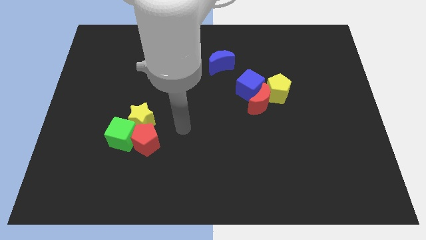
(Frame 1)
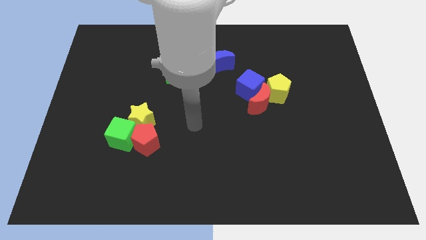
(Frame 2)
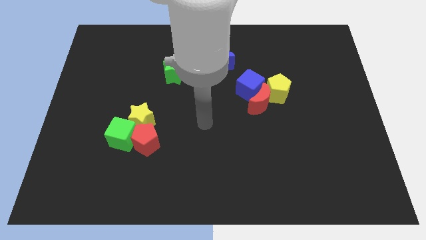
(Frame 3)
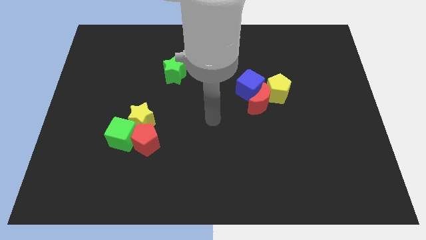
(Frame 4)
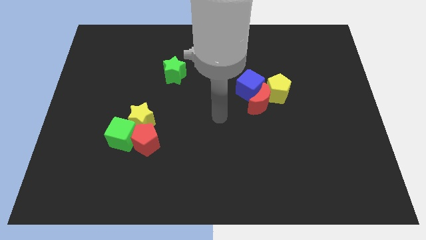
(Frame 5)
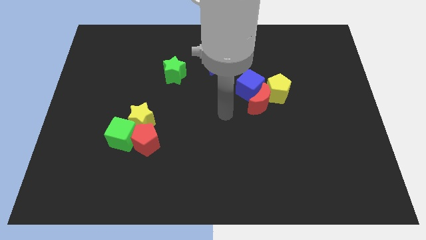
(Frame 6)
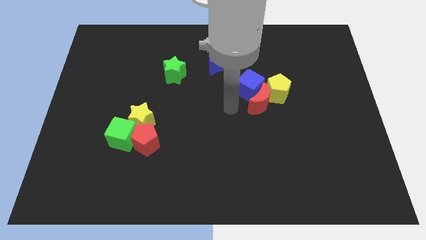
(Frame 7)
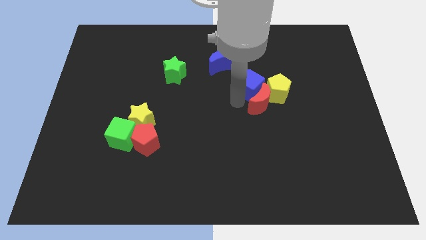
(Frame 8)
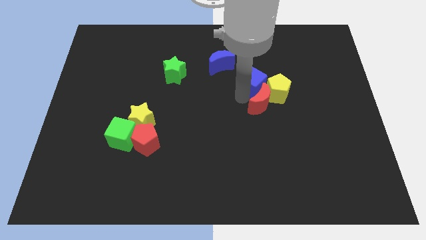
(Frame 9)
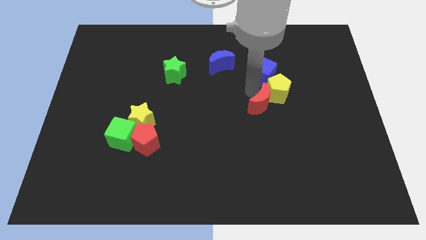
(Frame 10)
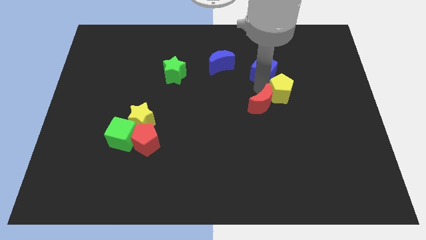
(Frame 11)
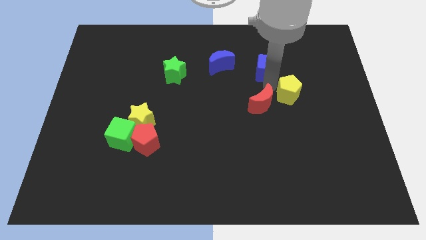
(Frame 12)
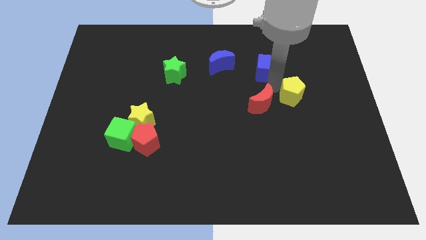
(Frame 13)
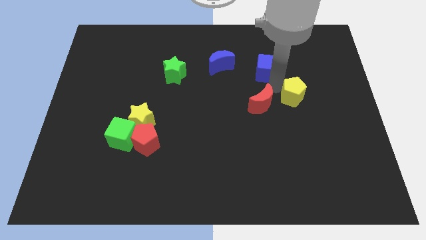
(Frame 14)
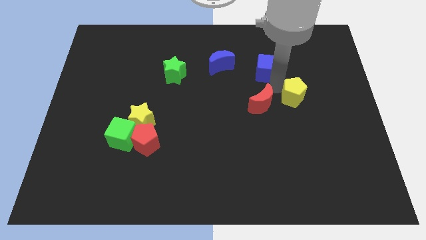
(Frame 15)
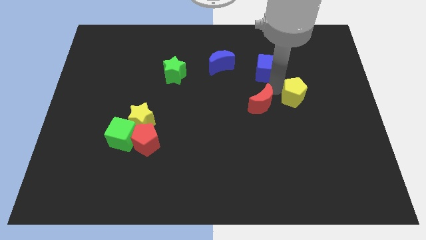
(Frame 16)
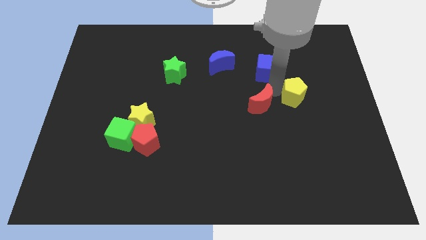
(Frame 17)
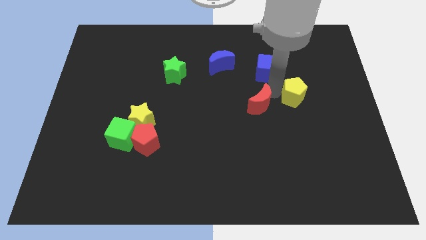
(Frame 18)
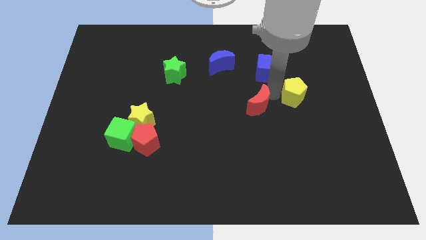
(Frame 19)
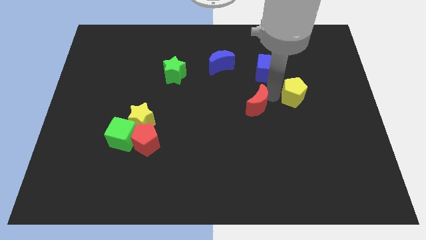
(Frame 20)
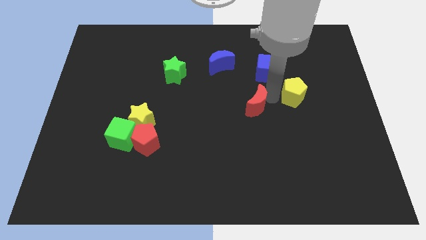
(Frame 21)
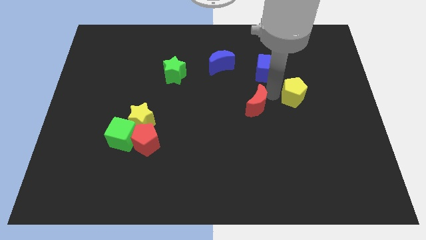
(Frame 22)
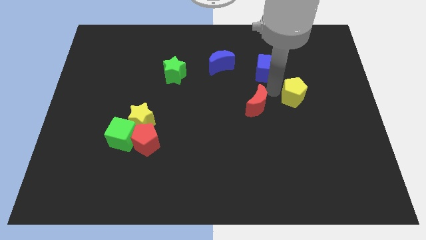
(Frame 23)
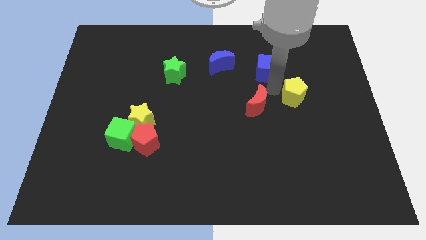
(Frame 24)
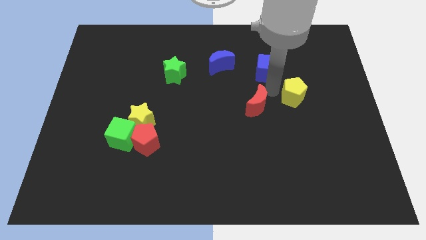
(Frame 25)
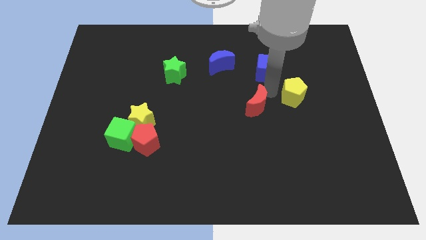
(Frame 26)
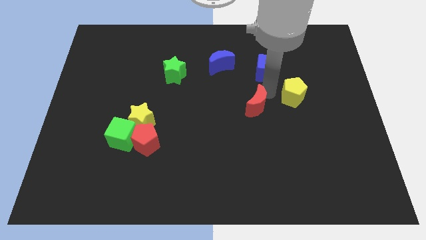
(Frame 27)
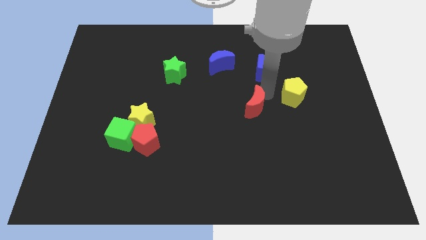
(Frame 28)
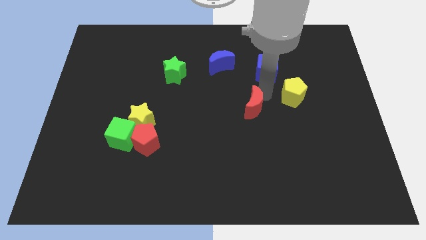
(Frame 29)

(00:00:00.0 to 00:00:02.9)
move the red moon away from the blue cube and yellow pentagon

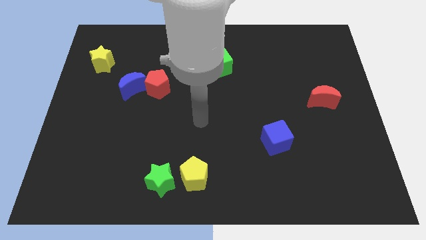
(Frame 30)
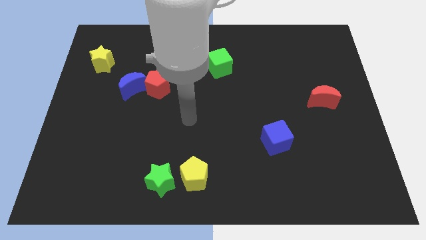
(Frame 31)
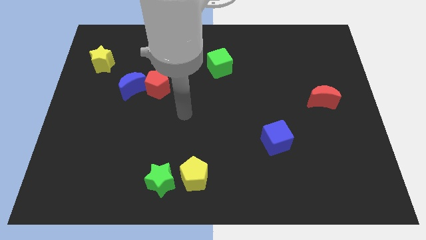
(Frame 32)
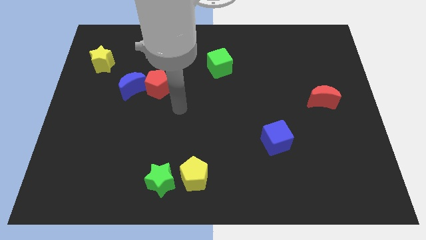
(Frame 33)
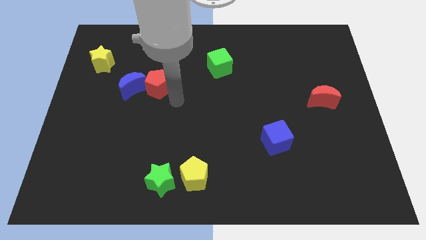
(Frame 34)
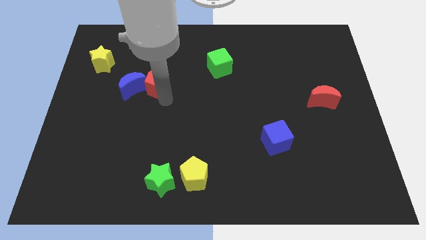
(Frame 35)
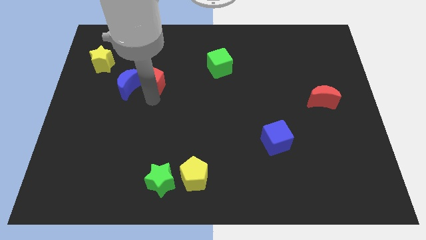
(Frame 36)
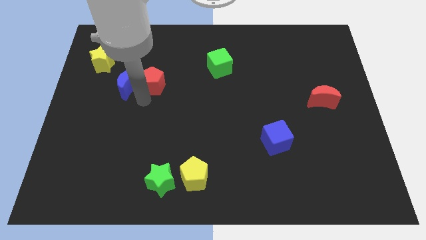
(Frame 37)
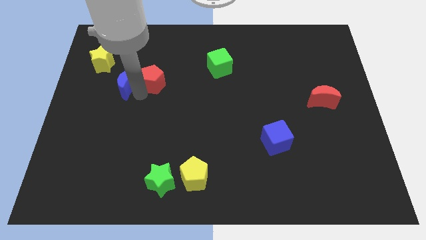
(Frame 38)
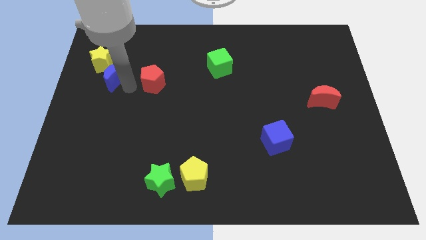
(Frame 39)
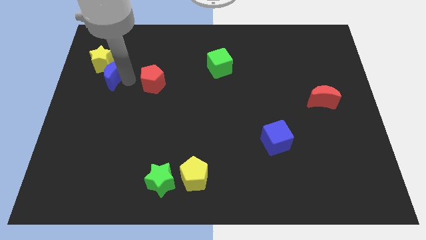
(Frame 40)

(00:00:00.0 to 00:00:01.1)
pull the red pentagon apart from the blue moon

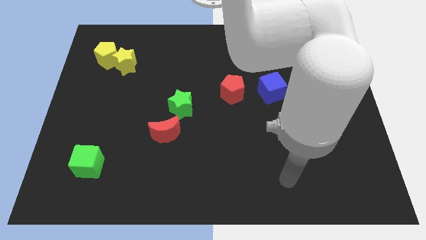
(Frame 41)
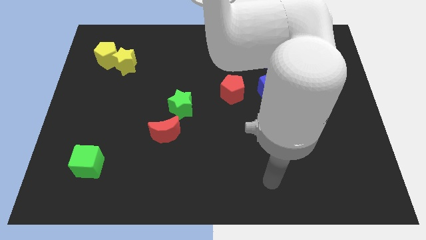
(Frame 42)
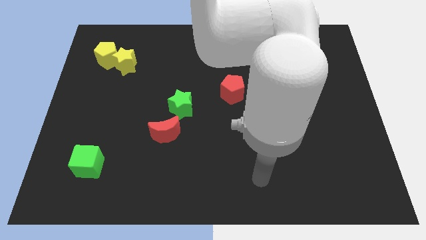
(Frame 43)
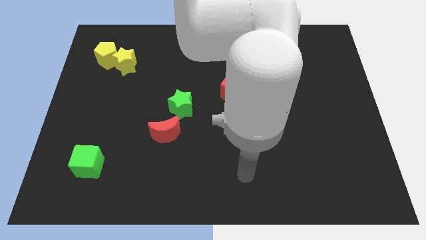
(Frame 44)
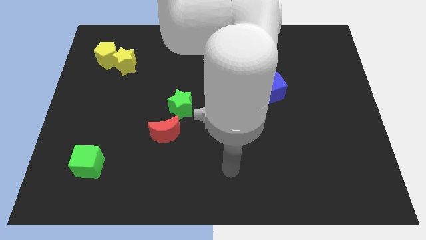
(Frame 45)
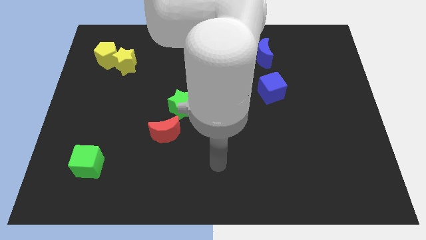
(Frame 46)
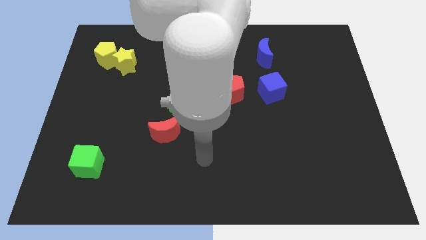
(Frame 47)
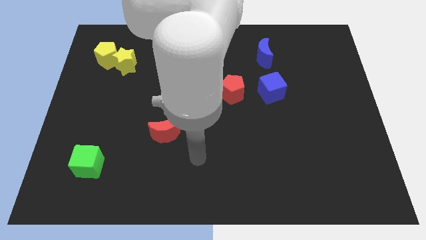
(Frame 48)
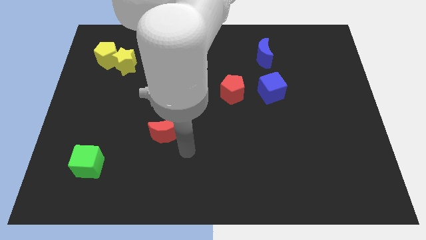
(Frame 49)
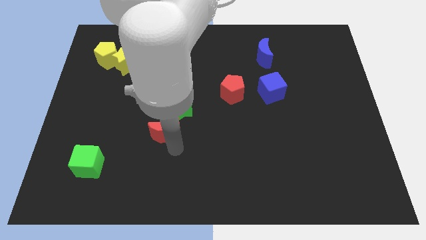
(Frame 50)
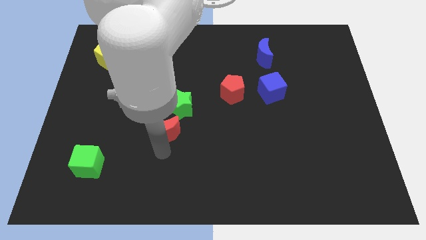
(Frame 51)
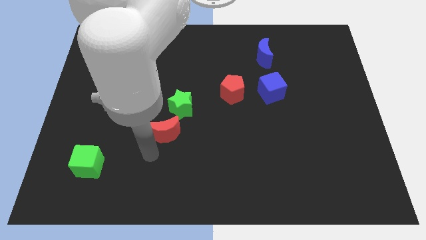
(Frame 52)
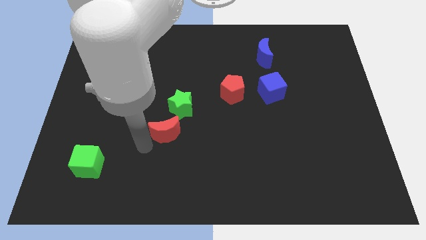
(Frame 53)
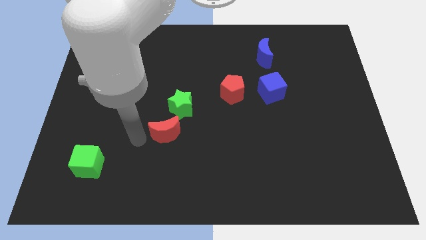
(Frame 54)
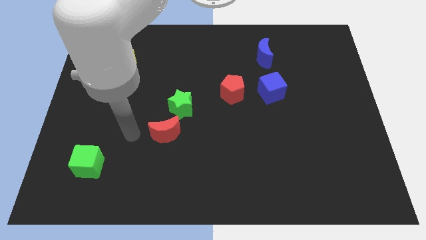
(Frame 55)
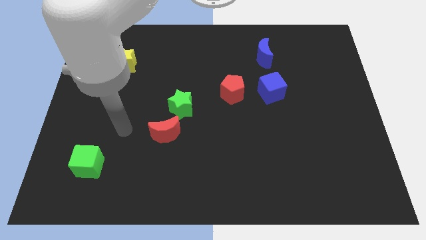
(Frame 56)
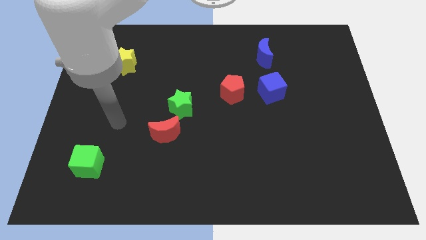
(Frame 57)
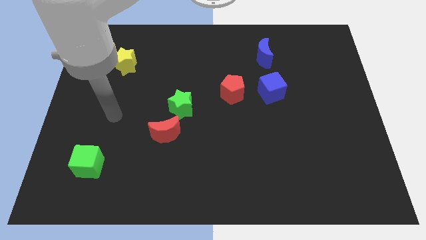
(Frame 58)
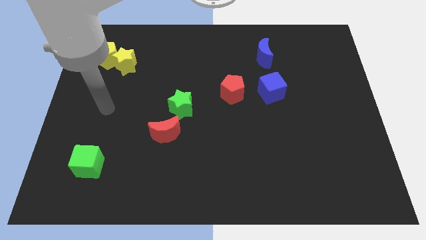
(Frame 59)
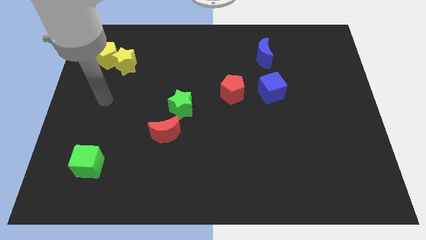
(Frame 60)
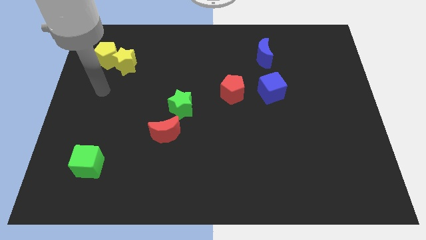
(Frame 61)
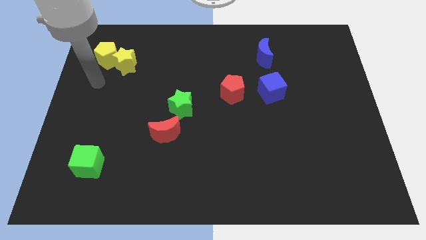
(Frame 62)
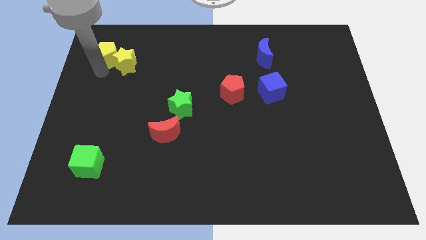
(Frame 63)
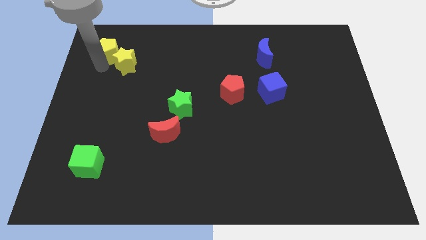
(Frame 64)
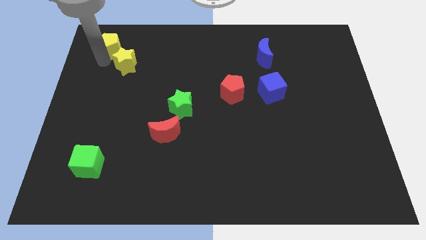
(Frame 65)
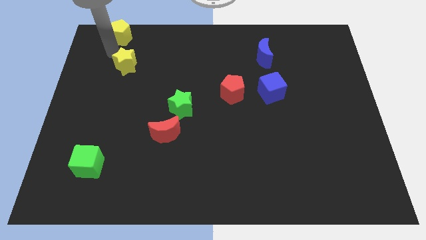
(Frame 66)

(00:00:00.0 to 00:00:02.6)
separate the yellow star from the yellow pentagon

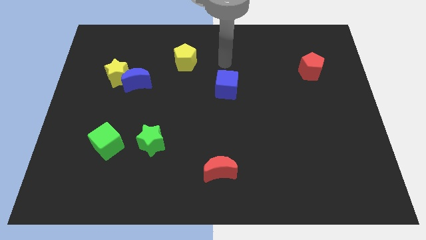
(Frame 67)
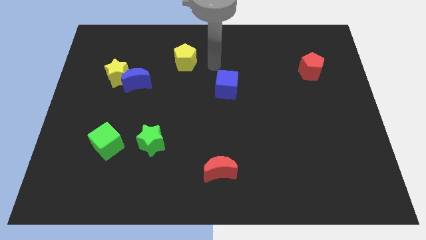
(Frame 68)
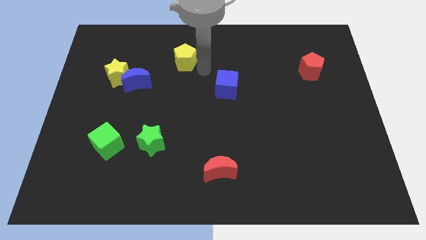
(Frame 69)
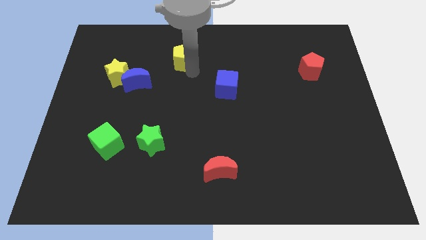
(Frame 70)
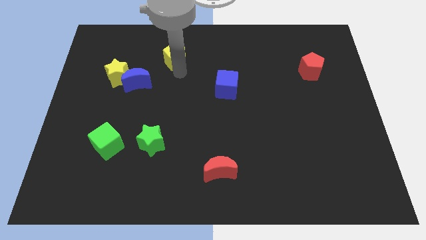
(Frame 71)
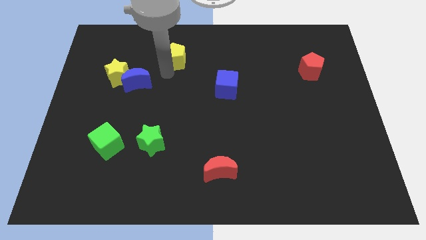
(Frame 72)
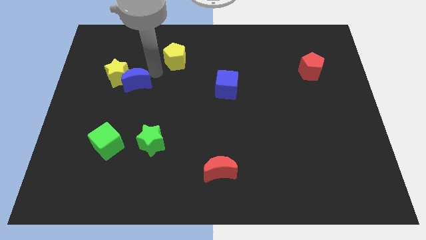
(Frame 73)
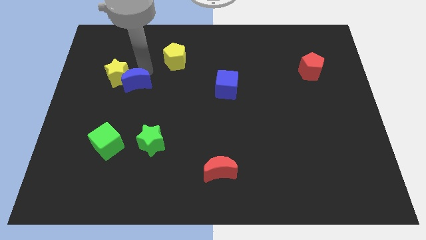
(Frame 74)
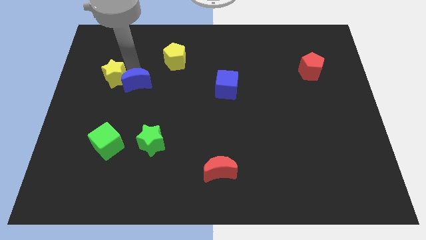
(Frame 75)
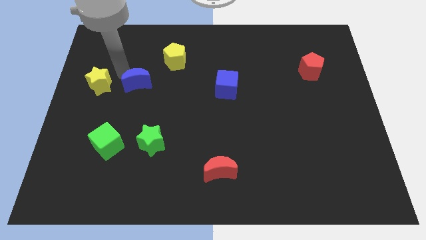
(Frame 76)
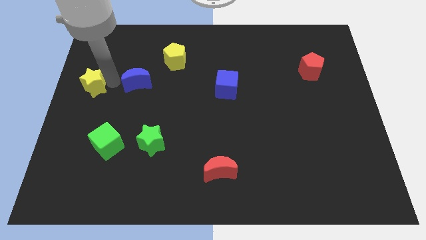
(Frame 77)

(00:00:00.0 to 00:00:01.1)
pull the blue moon apart from the yellow star

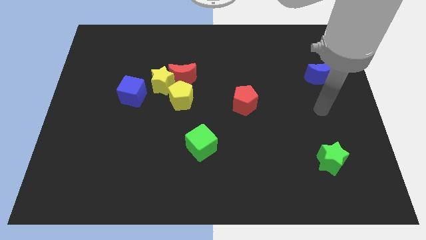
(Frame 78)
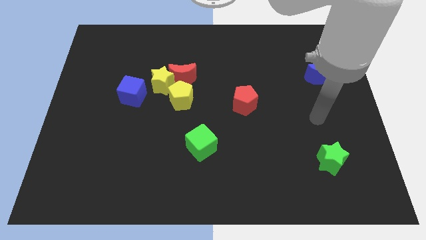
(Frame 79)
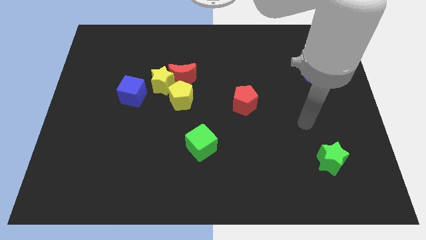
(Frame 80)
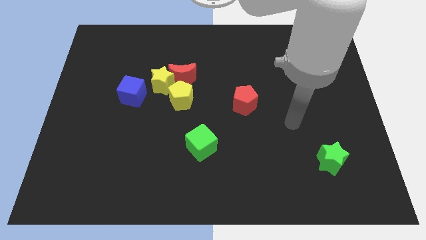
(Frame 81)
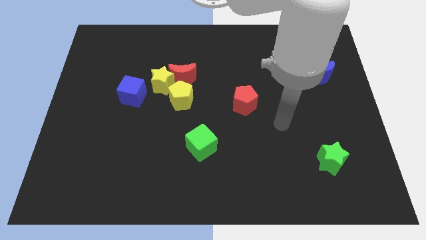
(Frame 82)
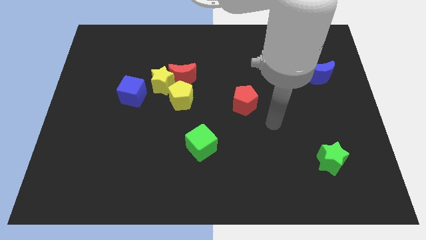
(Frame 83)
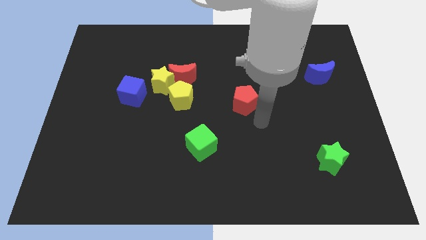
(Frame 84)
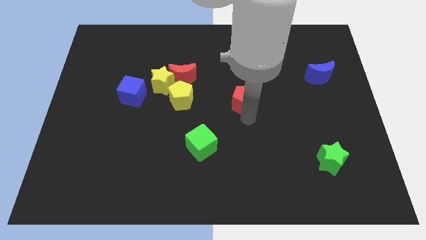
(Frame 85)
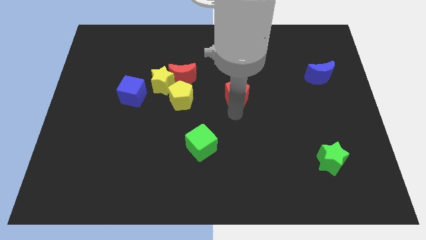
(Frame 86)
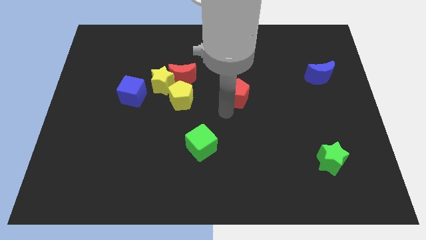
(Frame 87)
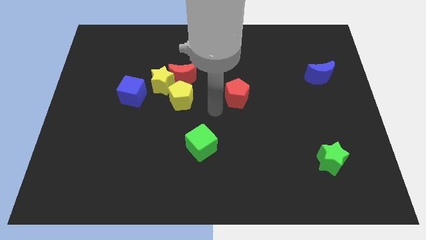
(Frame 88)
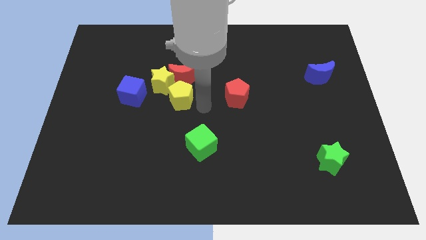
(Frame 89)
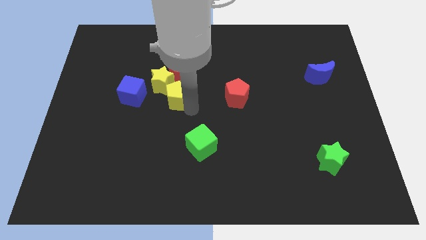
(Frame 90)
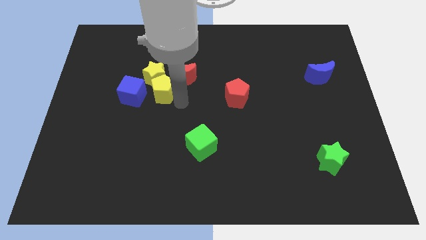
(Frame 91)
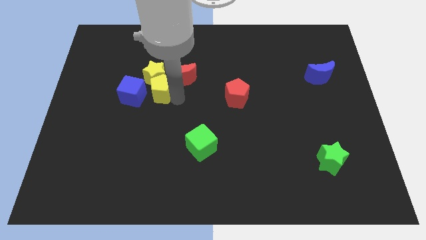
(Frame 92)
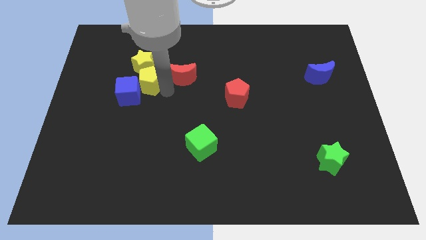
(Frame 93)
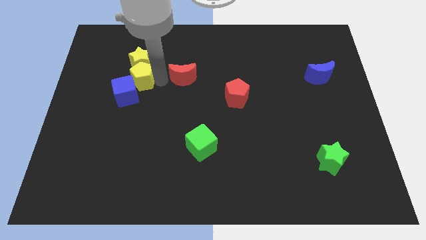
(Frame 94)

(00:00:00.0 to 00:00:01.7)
move the red moon away from the yellow star and yellow pentagon
